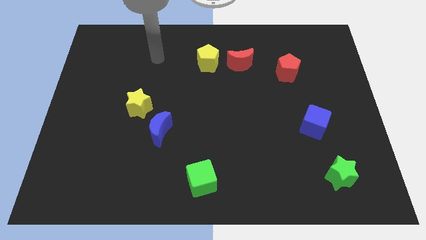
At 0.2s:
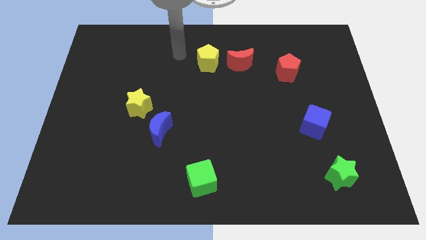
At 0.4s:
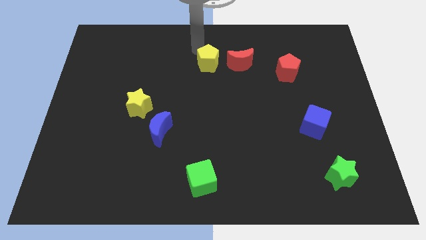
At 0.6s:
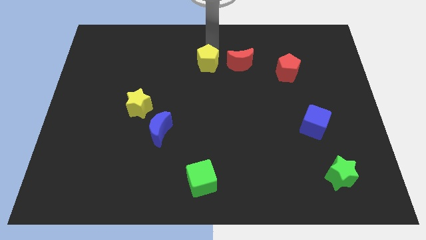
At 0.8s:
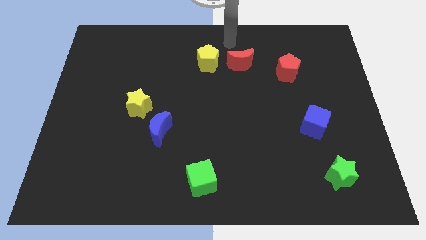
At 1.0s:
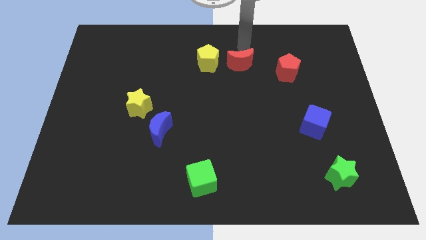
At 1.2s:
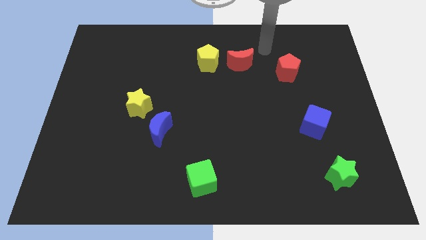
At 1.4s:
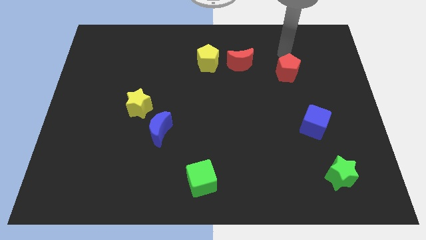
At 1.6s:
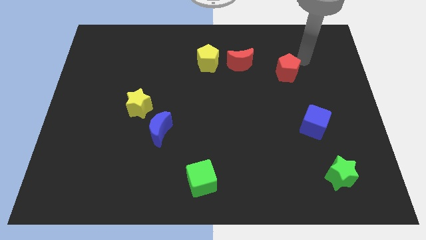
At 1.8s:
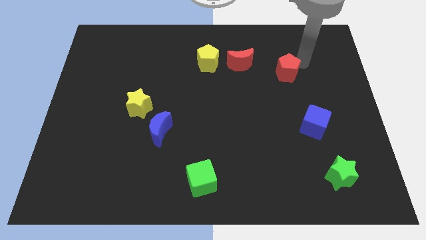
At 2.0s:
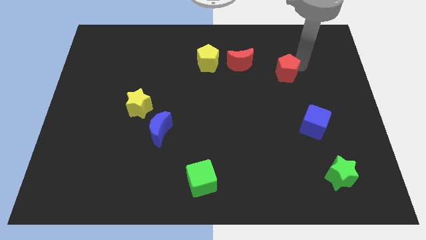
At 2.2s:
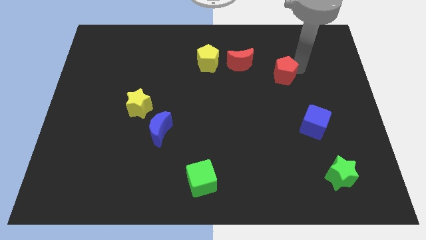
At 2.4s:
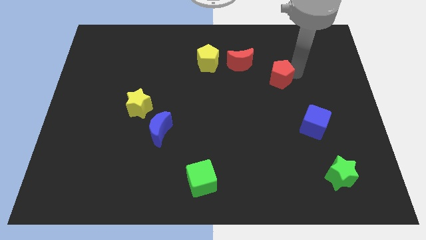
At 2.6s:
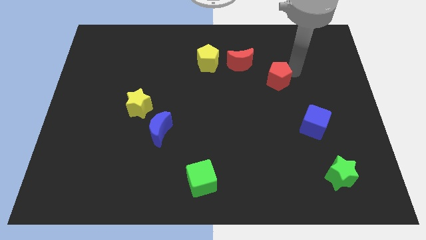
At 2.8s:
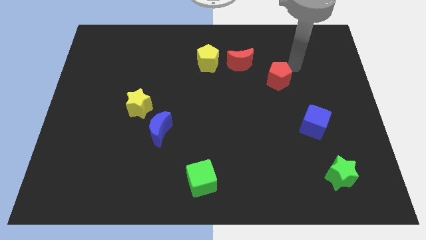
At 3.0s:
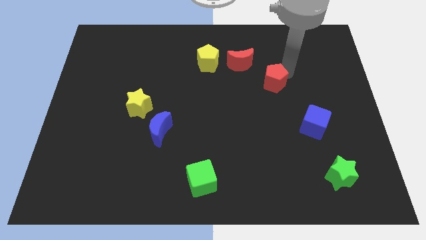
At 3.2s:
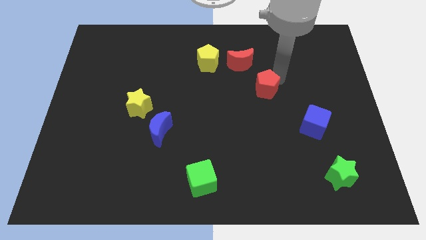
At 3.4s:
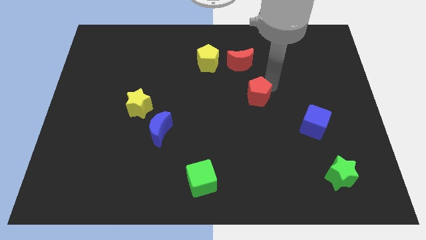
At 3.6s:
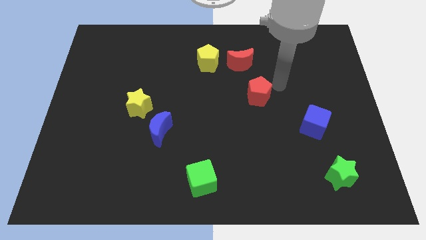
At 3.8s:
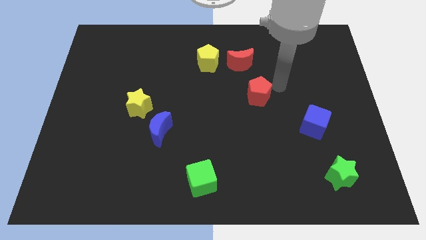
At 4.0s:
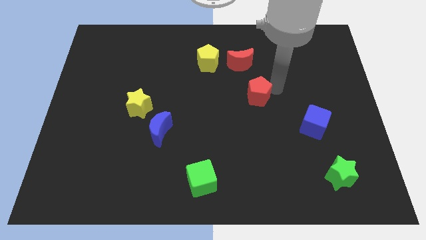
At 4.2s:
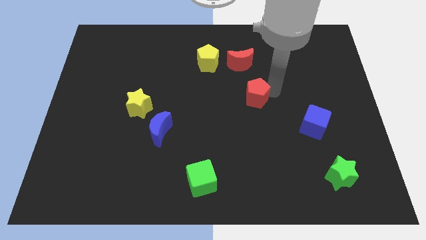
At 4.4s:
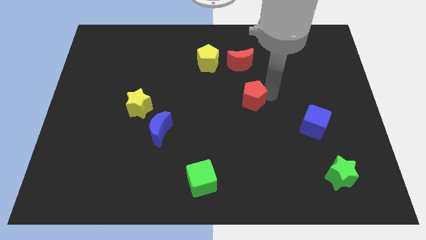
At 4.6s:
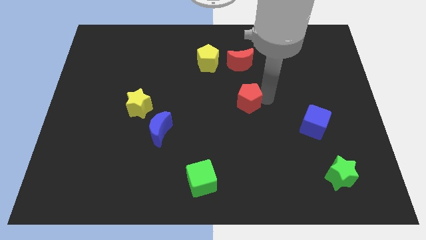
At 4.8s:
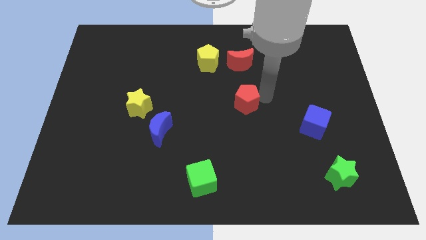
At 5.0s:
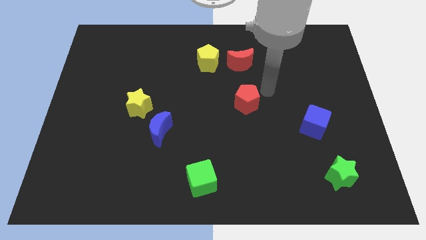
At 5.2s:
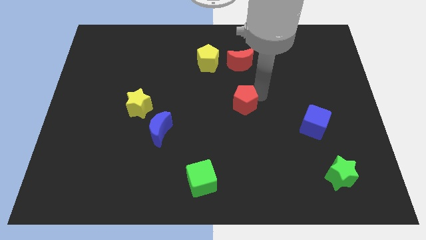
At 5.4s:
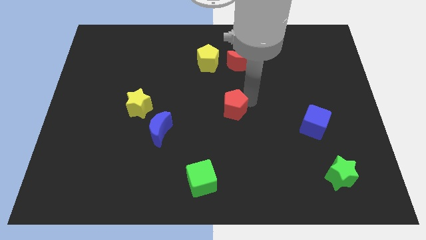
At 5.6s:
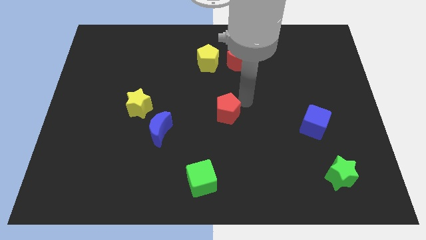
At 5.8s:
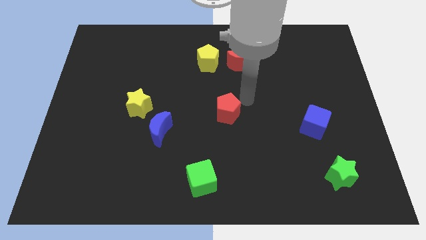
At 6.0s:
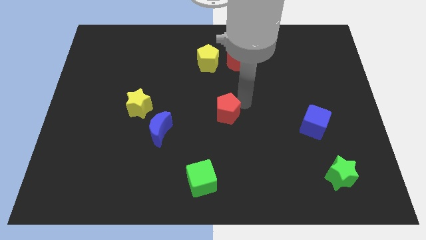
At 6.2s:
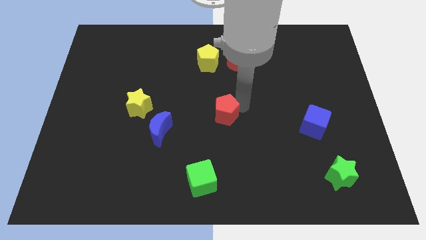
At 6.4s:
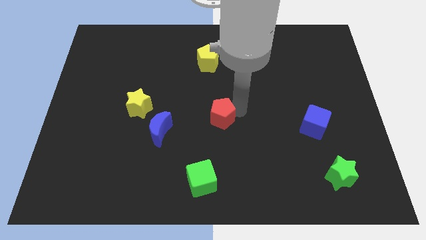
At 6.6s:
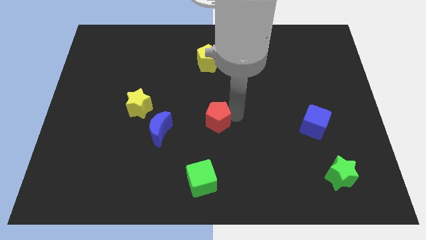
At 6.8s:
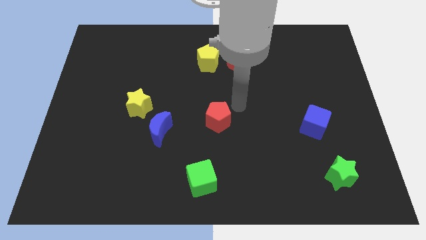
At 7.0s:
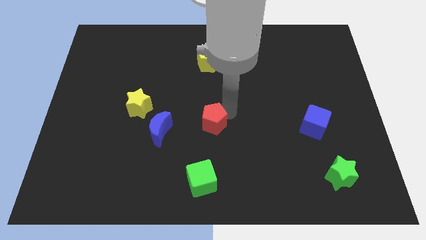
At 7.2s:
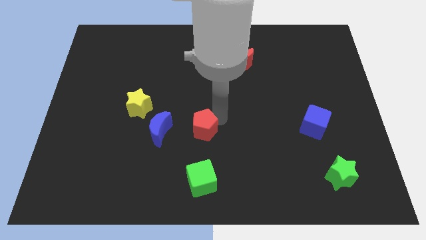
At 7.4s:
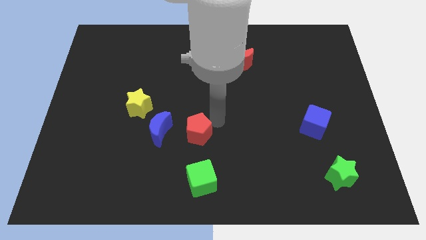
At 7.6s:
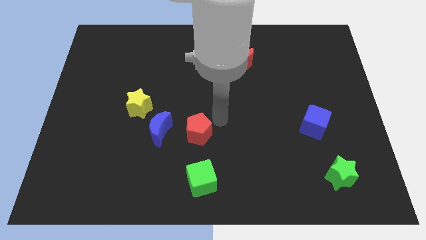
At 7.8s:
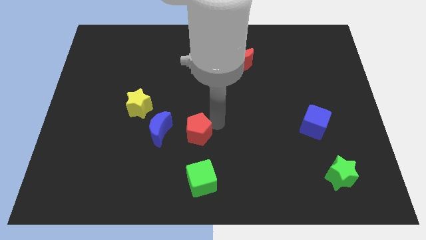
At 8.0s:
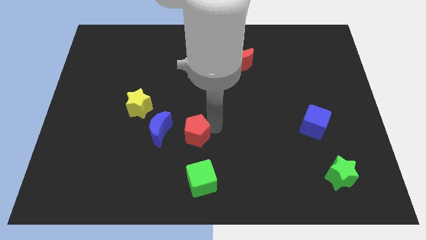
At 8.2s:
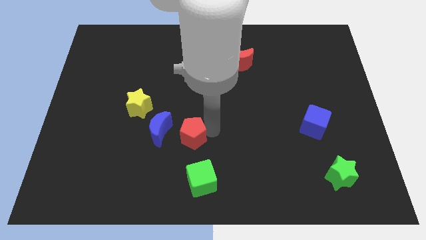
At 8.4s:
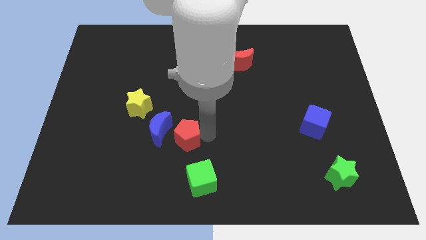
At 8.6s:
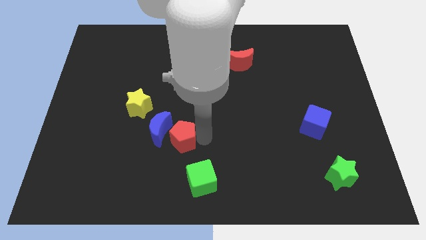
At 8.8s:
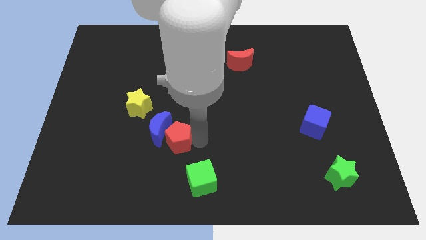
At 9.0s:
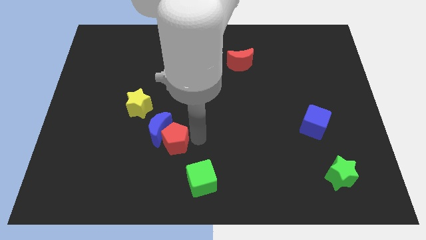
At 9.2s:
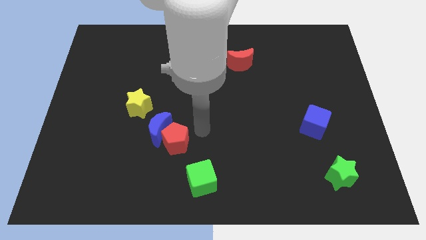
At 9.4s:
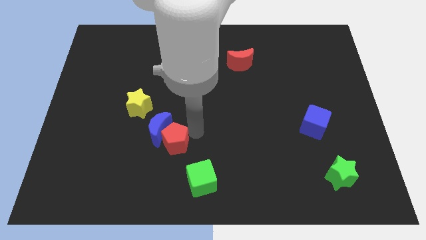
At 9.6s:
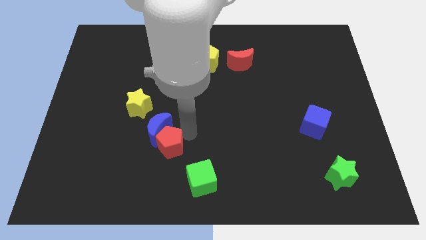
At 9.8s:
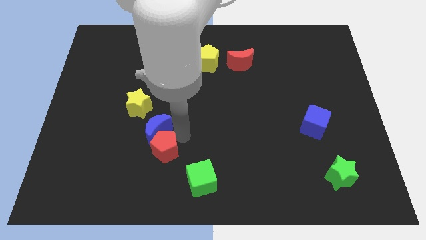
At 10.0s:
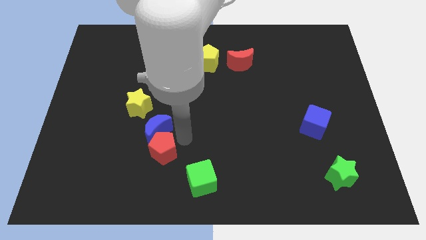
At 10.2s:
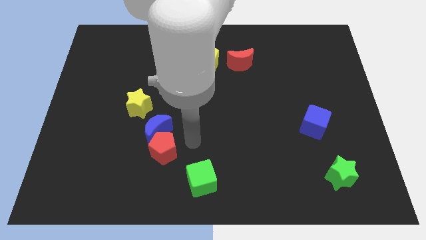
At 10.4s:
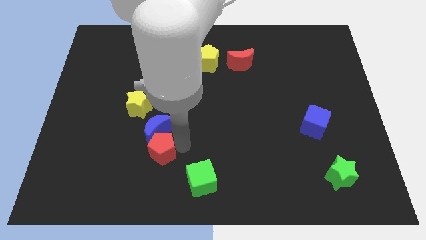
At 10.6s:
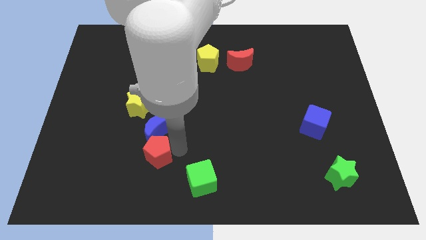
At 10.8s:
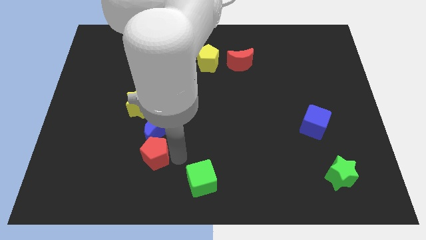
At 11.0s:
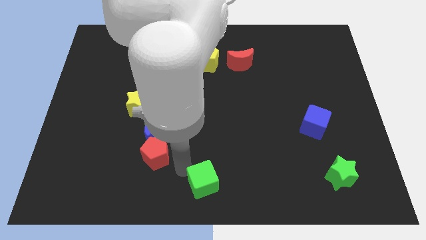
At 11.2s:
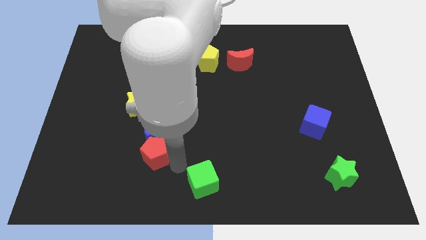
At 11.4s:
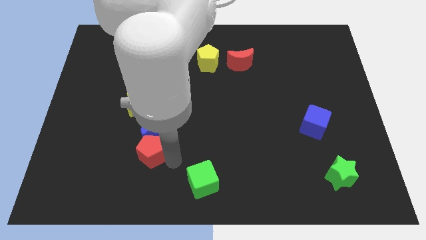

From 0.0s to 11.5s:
put the red pentagon to the bottom side of the yellow star
